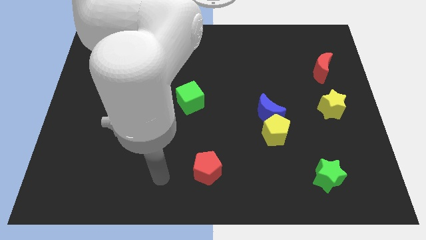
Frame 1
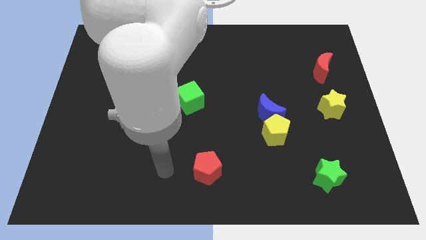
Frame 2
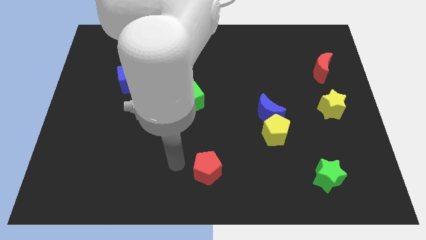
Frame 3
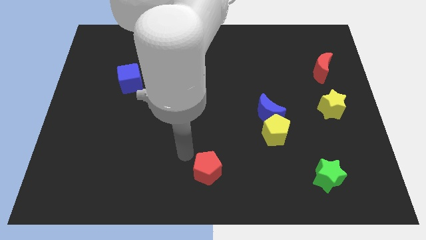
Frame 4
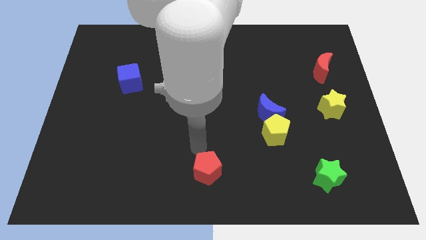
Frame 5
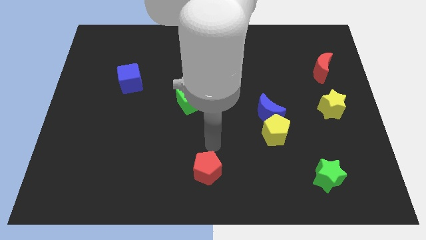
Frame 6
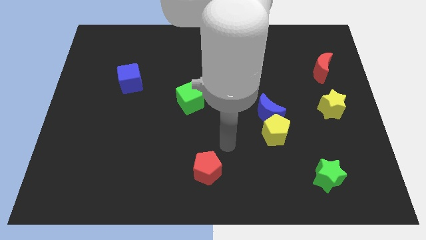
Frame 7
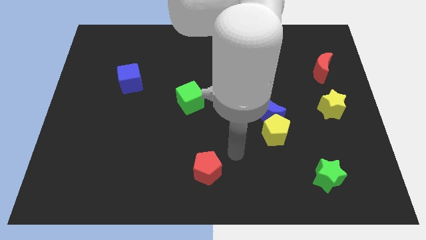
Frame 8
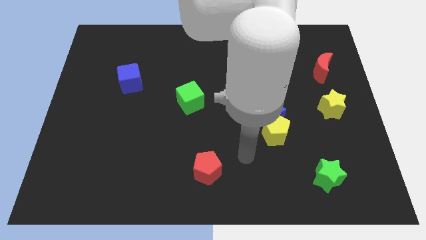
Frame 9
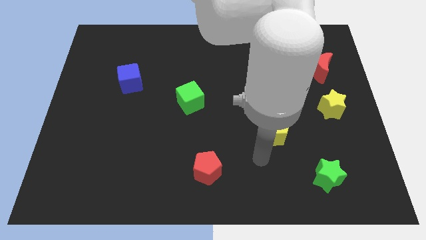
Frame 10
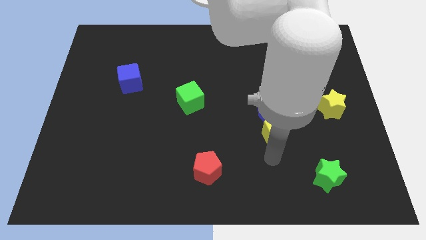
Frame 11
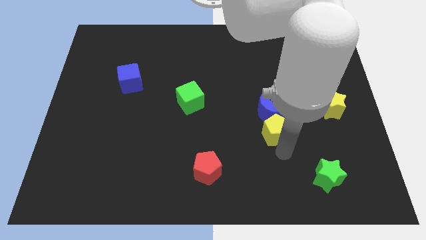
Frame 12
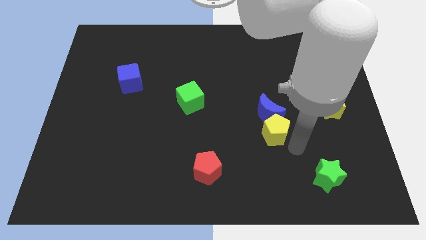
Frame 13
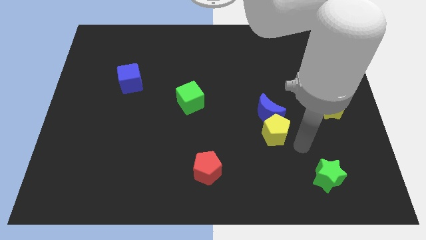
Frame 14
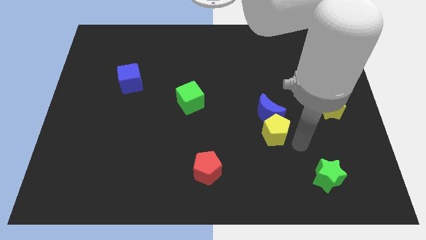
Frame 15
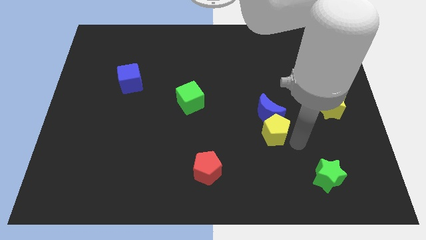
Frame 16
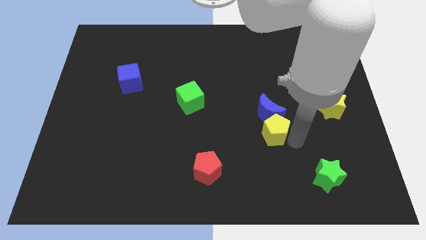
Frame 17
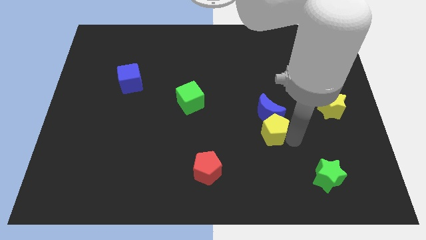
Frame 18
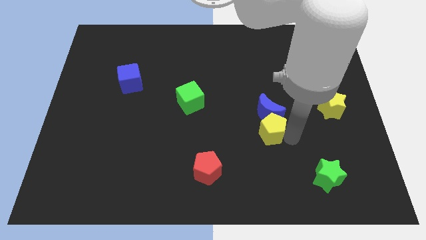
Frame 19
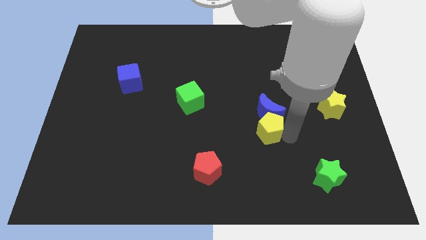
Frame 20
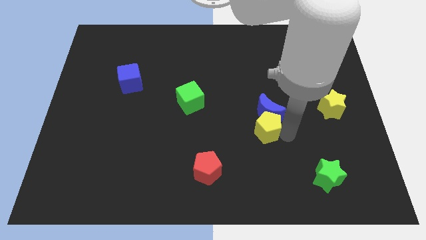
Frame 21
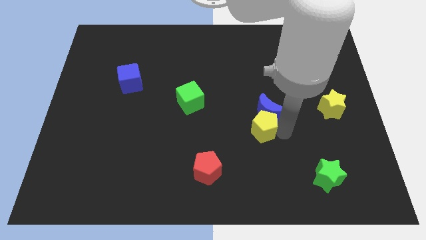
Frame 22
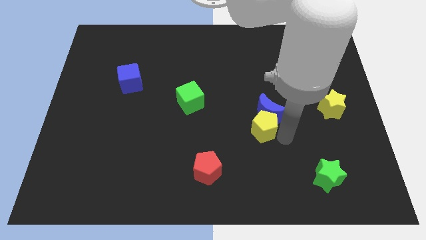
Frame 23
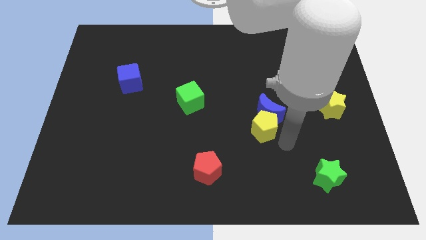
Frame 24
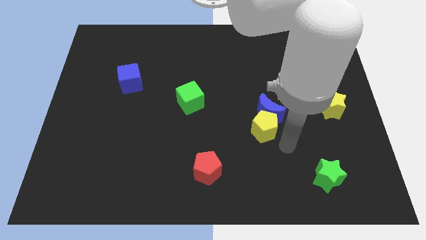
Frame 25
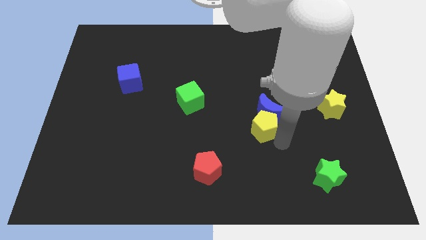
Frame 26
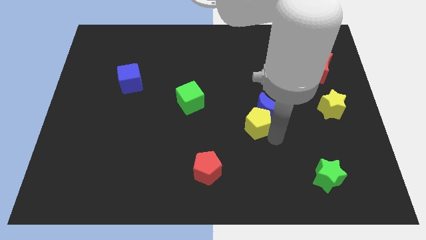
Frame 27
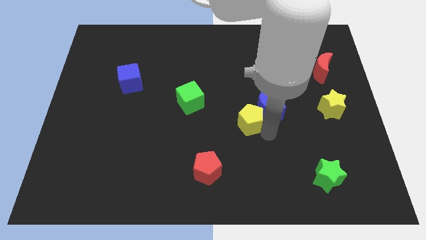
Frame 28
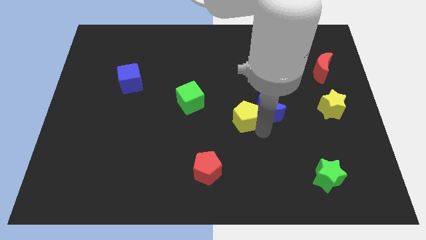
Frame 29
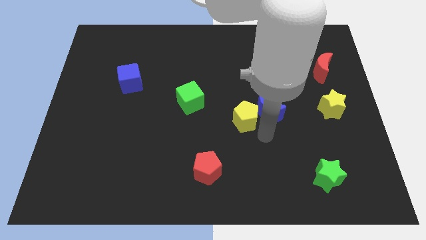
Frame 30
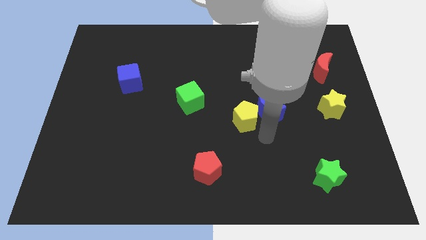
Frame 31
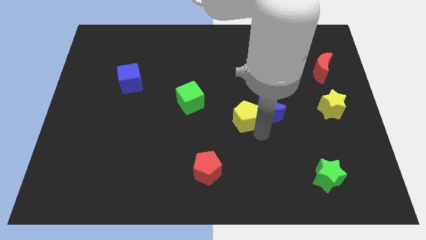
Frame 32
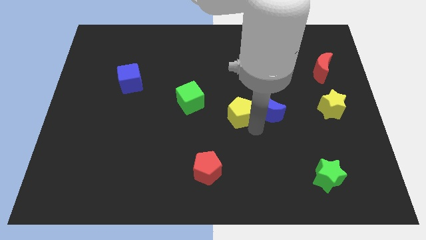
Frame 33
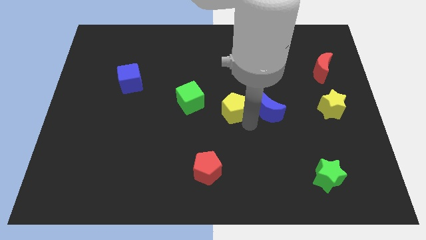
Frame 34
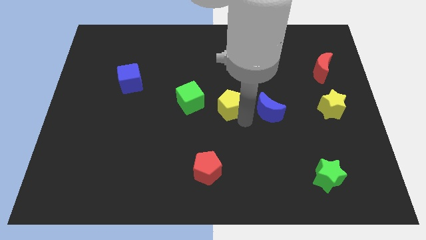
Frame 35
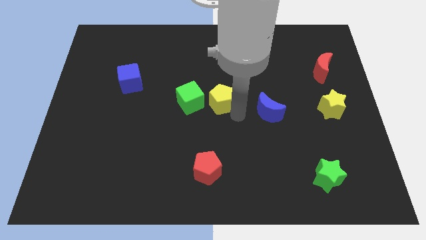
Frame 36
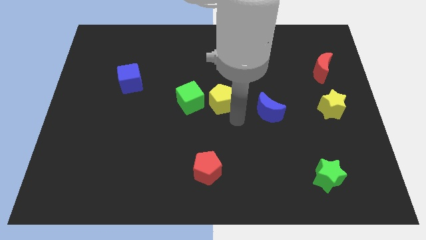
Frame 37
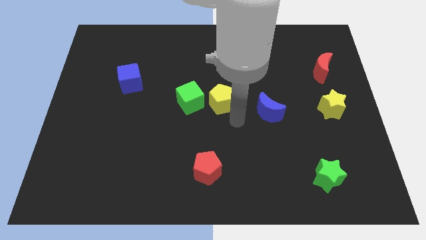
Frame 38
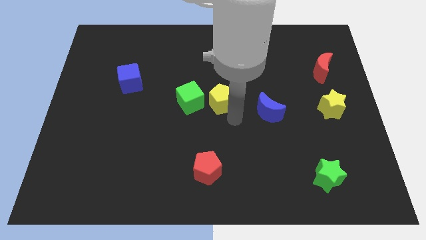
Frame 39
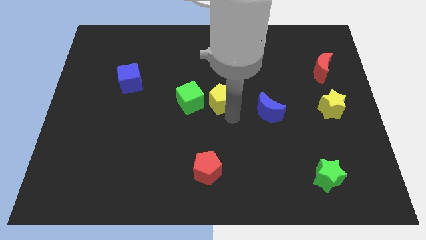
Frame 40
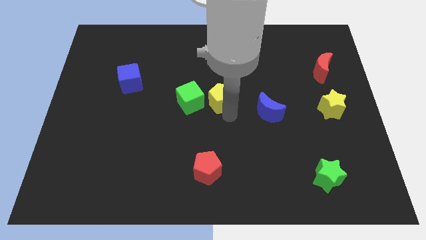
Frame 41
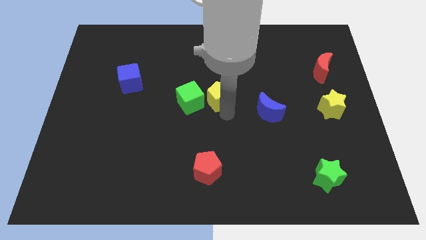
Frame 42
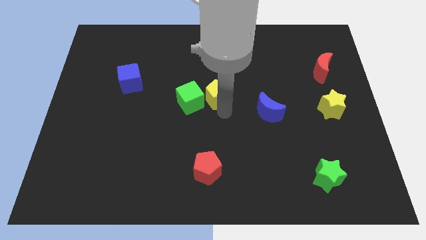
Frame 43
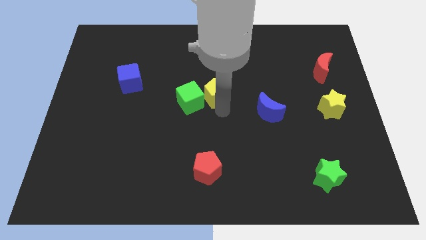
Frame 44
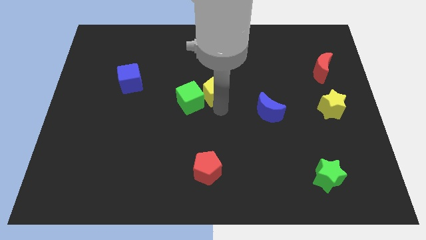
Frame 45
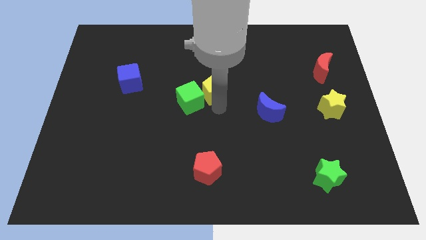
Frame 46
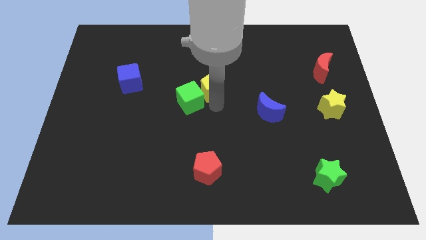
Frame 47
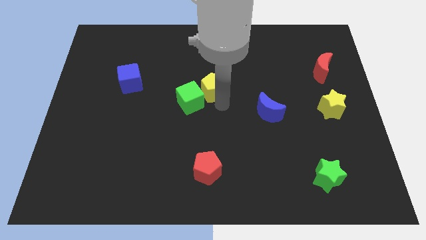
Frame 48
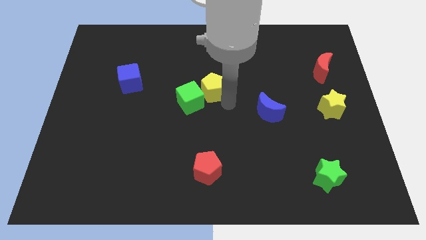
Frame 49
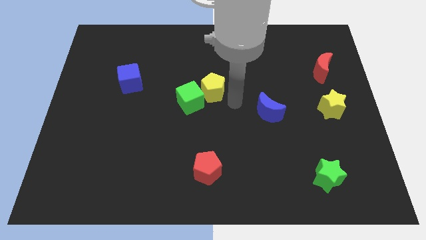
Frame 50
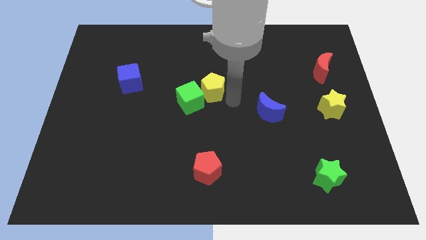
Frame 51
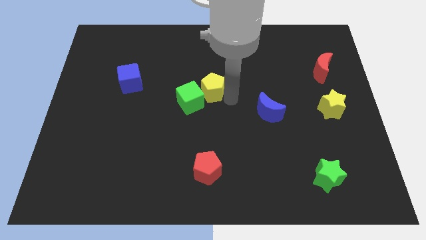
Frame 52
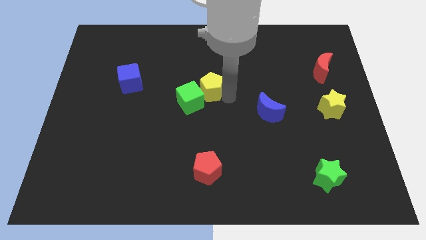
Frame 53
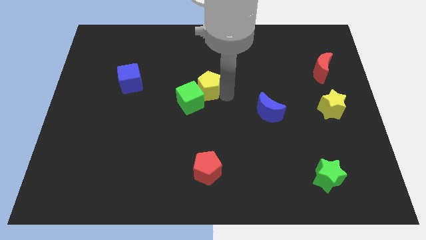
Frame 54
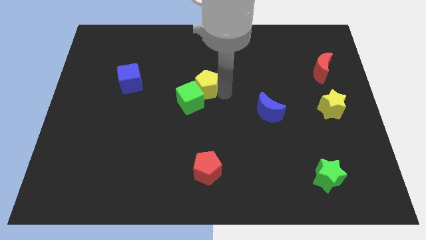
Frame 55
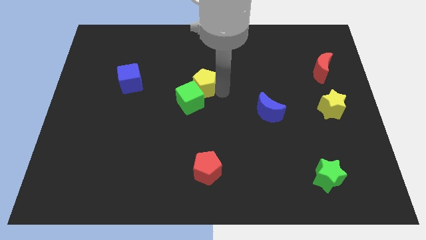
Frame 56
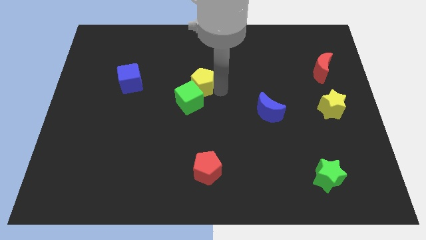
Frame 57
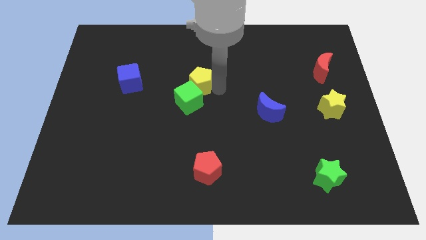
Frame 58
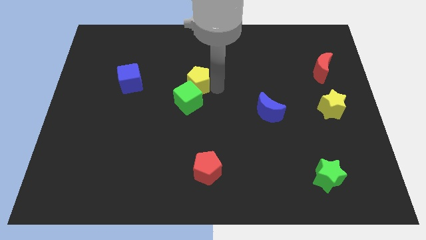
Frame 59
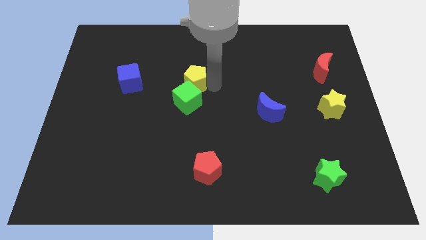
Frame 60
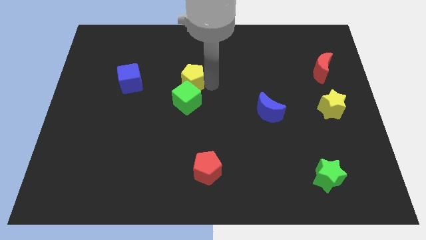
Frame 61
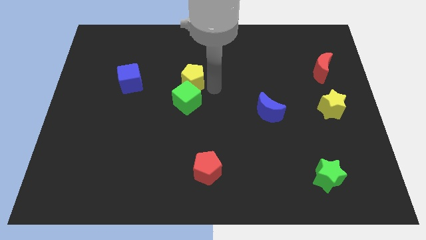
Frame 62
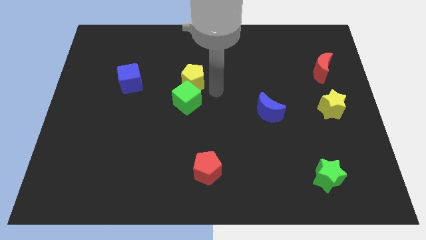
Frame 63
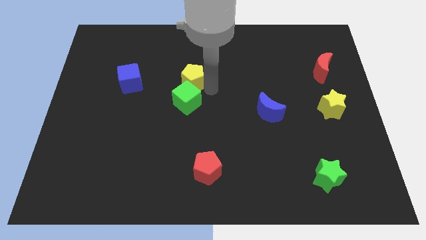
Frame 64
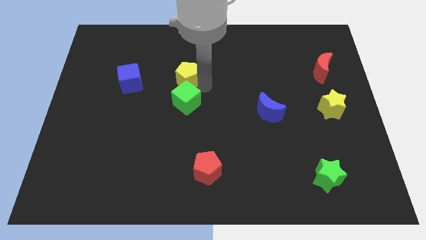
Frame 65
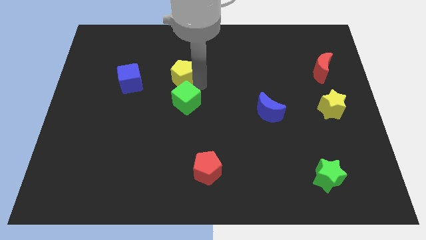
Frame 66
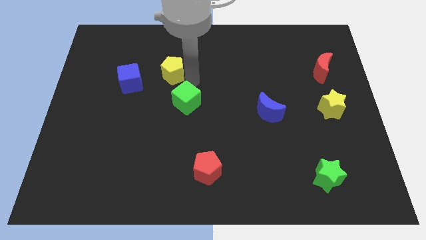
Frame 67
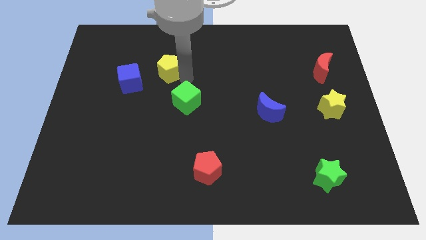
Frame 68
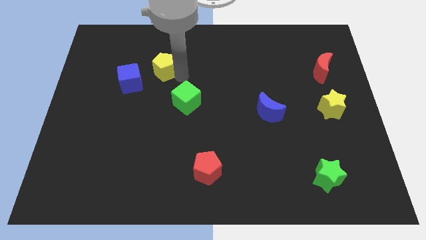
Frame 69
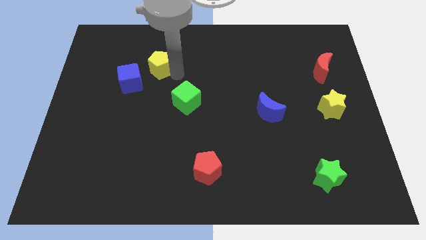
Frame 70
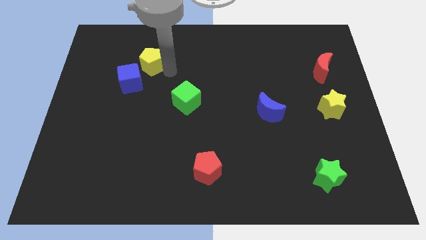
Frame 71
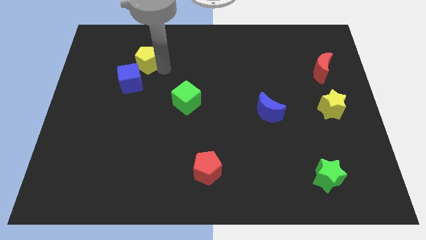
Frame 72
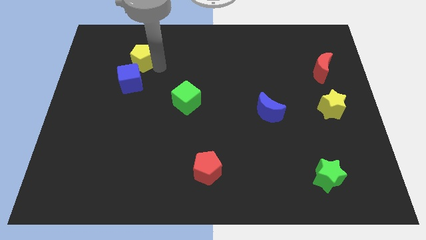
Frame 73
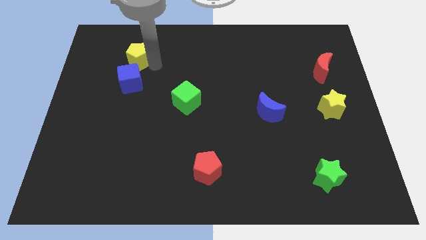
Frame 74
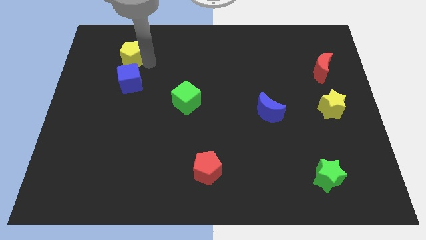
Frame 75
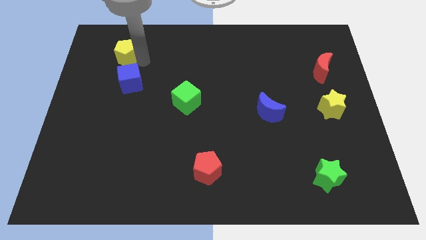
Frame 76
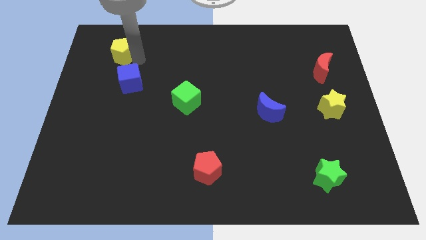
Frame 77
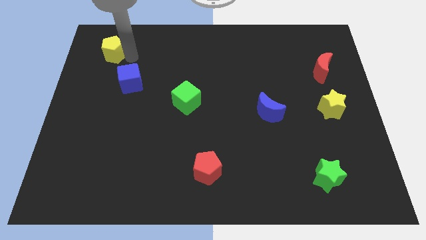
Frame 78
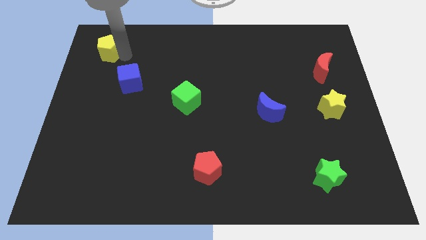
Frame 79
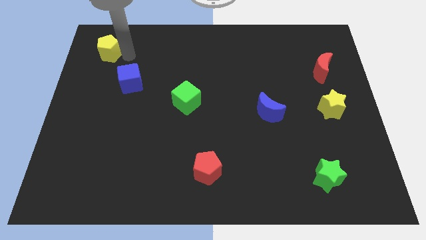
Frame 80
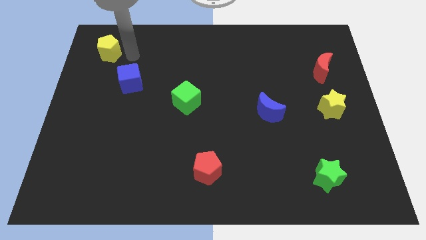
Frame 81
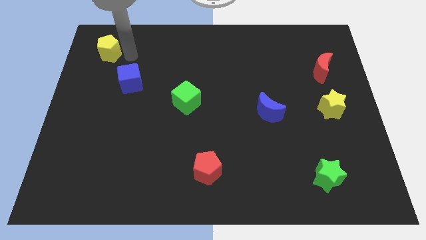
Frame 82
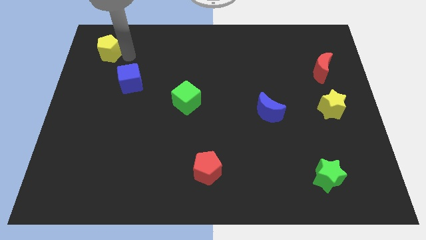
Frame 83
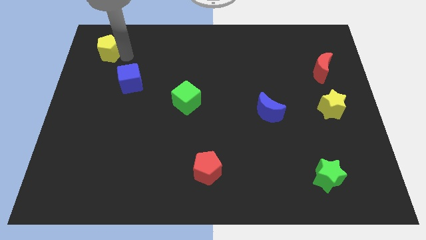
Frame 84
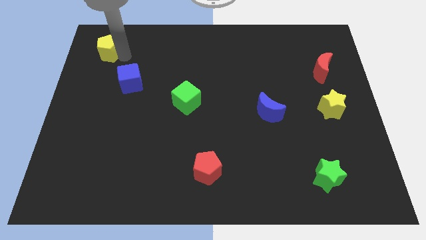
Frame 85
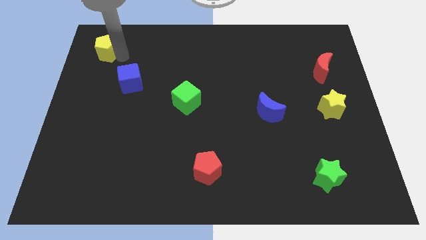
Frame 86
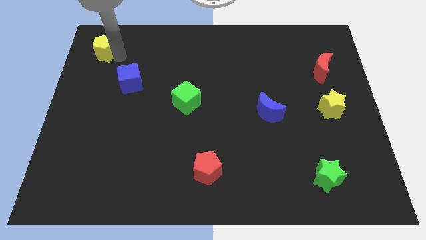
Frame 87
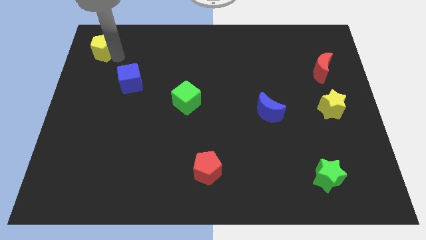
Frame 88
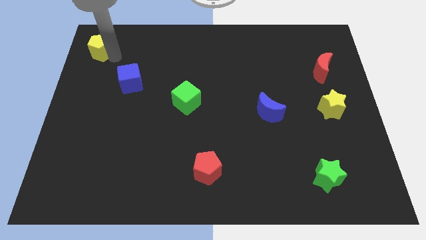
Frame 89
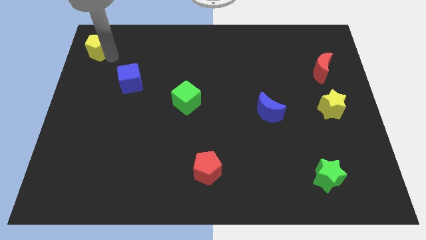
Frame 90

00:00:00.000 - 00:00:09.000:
push the yellow pentagon to the top left corner
